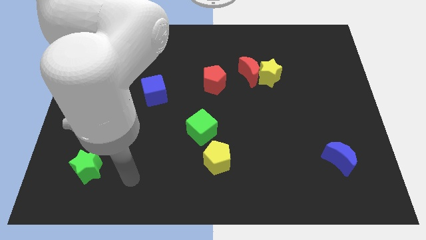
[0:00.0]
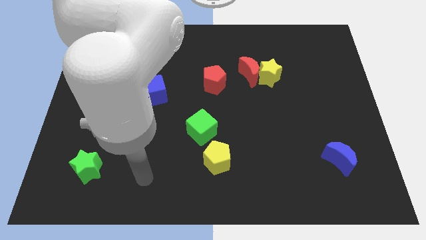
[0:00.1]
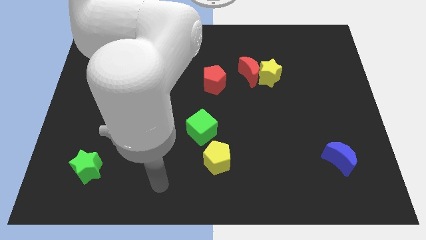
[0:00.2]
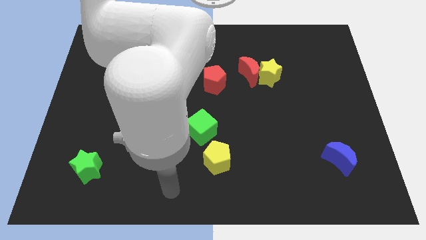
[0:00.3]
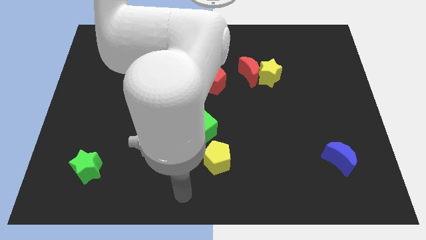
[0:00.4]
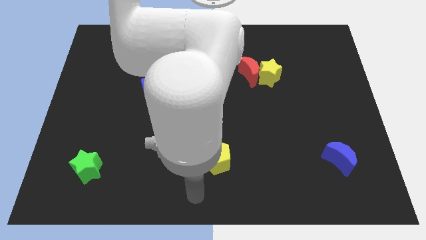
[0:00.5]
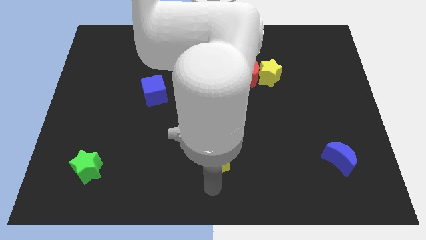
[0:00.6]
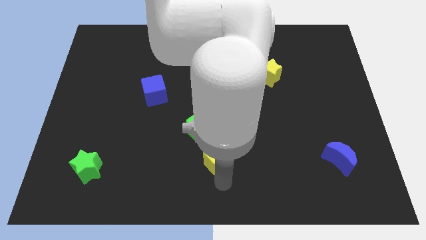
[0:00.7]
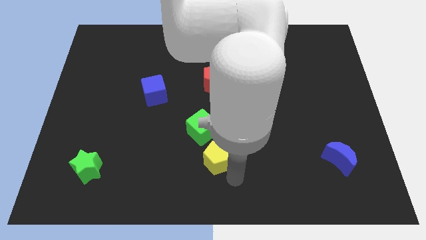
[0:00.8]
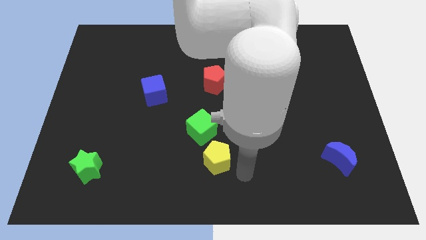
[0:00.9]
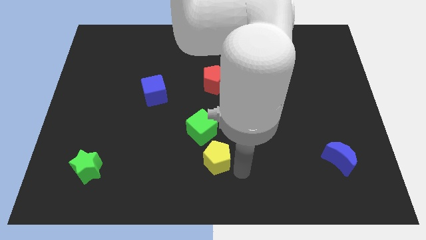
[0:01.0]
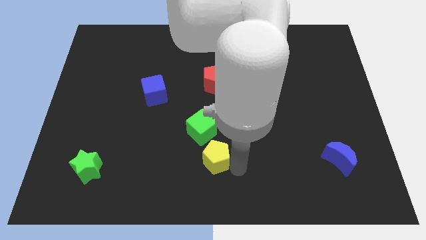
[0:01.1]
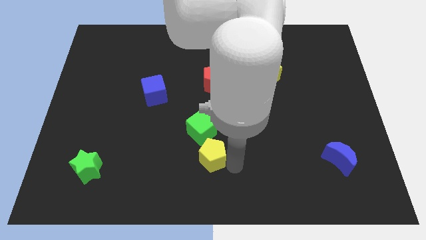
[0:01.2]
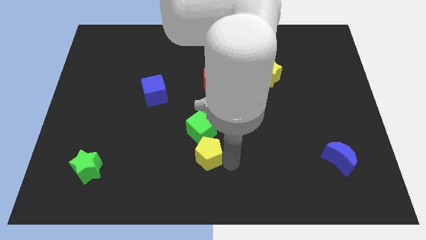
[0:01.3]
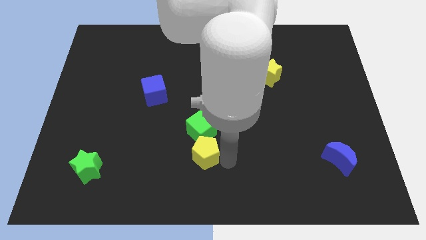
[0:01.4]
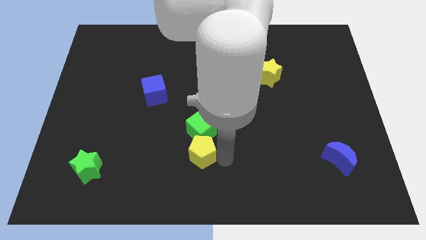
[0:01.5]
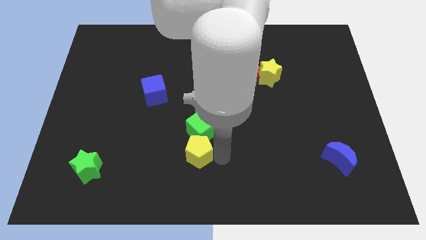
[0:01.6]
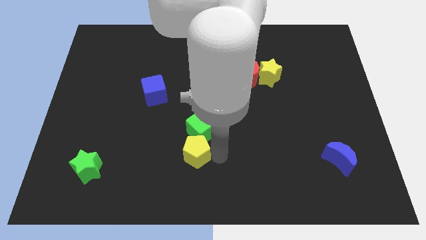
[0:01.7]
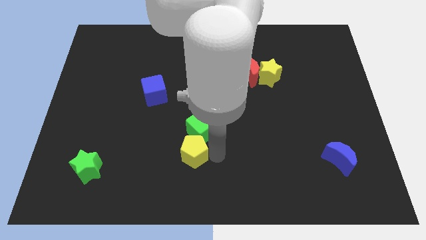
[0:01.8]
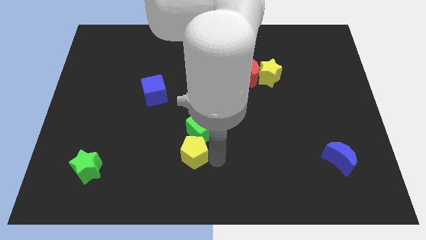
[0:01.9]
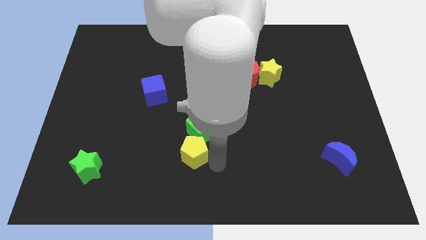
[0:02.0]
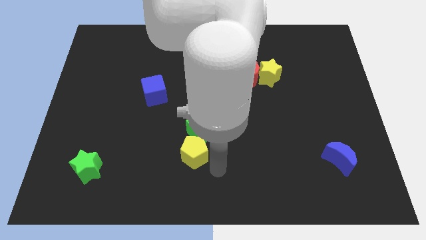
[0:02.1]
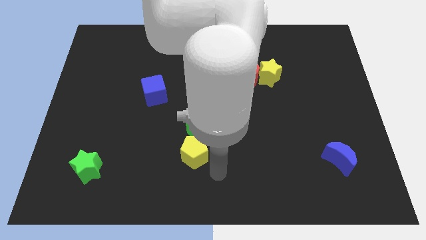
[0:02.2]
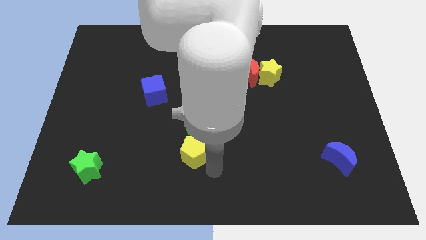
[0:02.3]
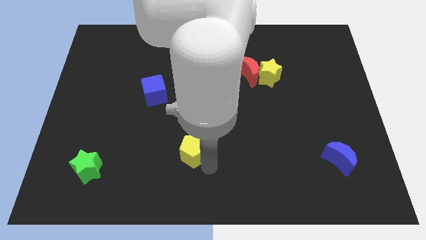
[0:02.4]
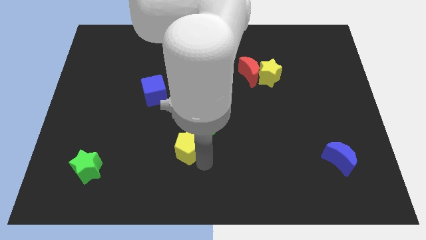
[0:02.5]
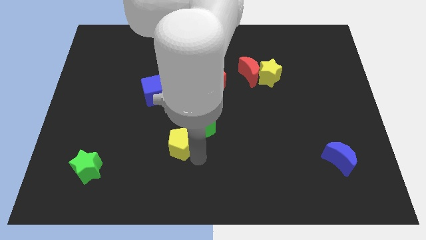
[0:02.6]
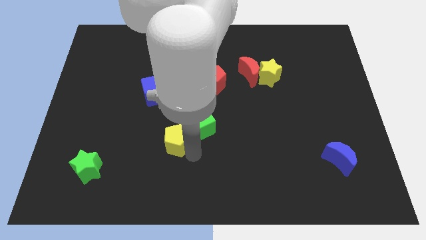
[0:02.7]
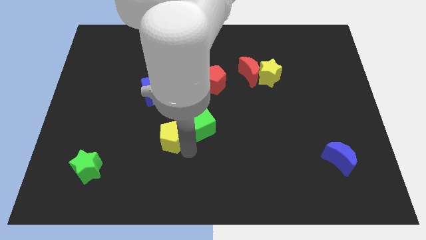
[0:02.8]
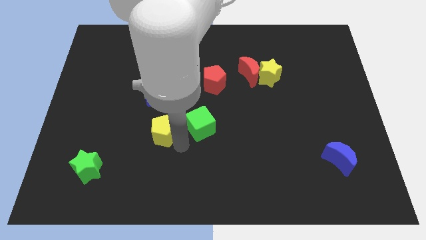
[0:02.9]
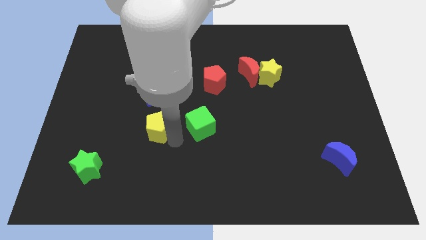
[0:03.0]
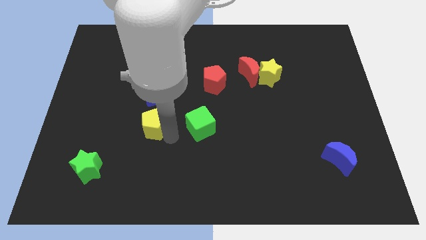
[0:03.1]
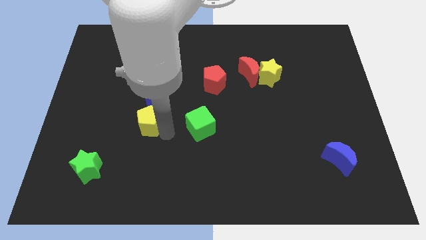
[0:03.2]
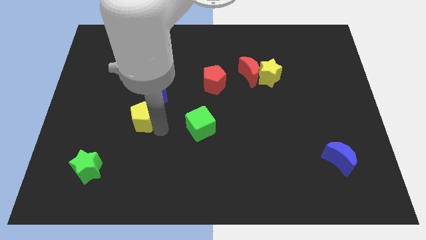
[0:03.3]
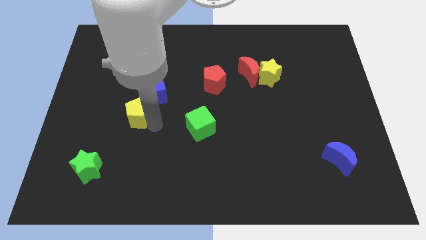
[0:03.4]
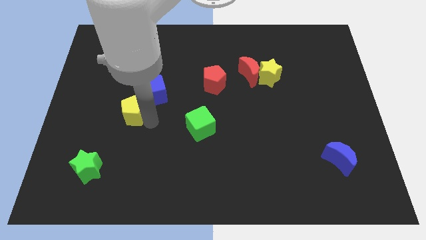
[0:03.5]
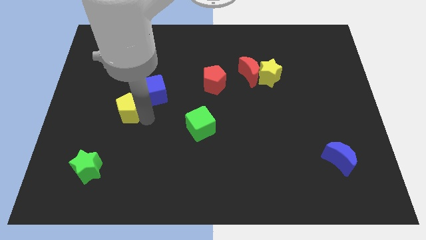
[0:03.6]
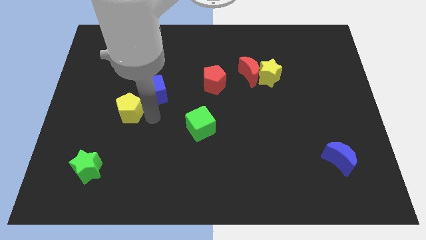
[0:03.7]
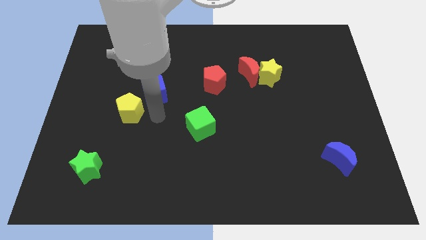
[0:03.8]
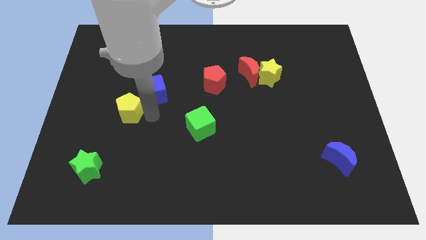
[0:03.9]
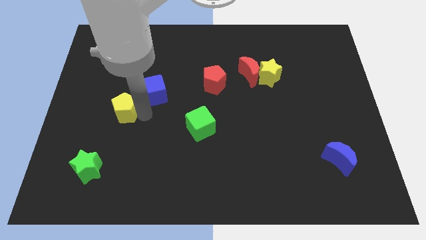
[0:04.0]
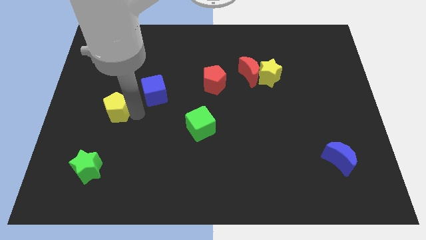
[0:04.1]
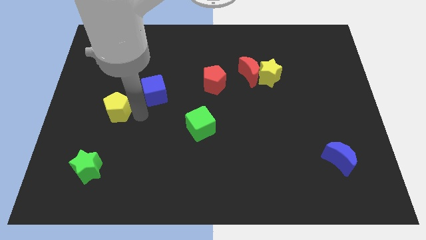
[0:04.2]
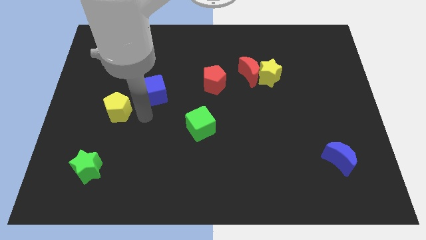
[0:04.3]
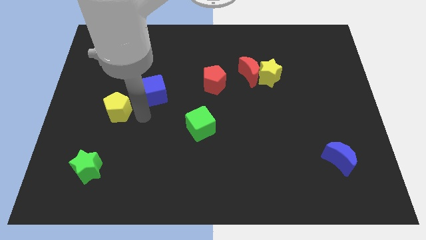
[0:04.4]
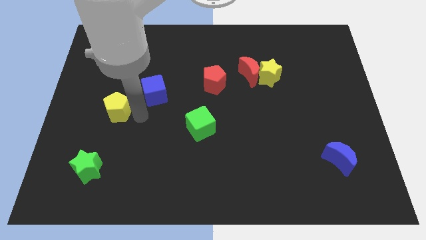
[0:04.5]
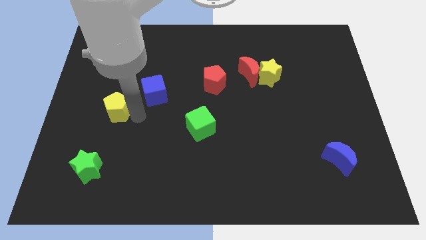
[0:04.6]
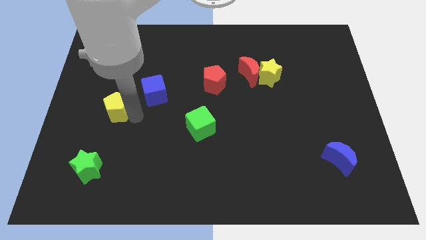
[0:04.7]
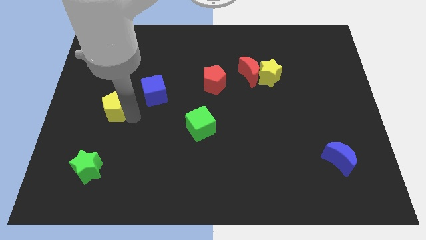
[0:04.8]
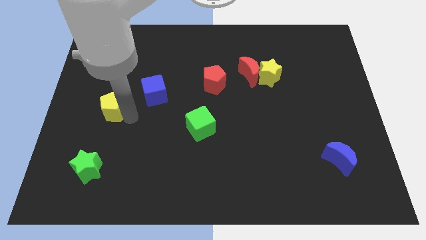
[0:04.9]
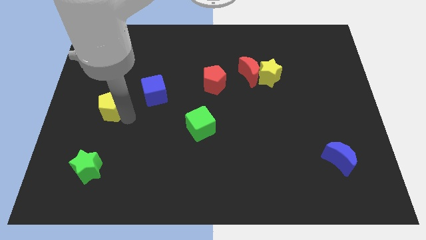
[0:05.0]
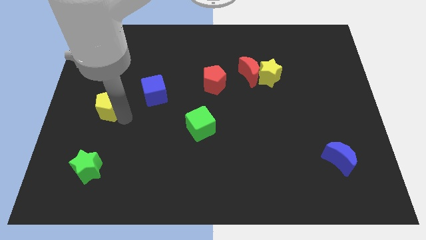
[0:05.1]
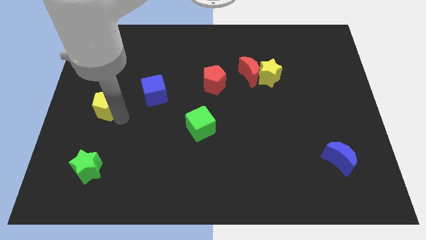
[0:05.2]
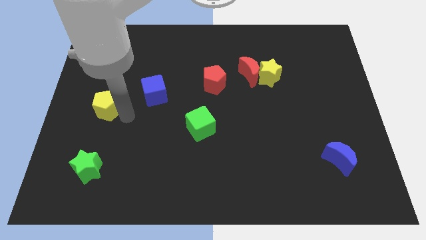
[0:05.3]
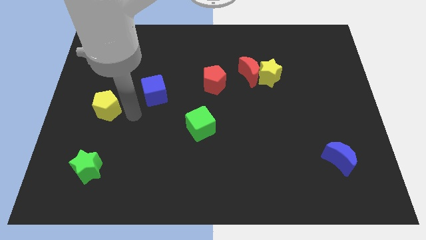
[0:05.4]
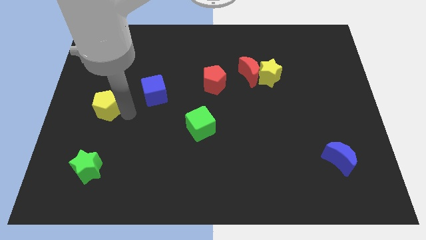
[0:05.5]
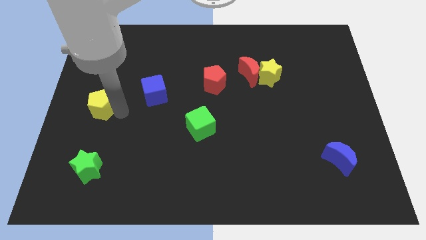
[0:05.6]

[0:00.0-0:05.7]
push the yellow pentagon to the center left

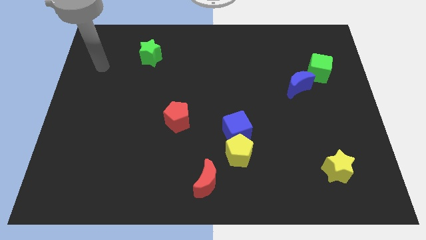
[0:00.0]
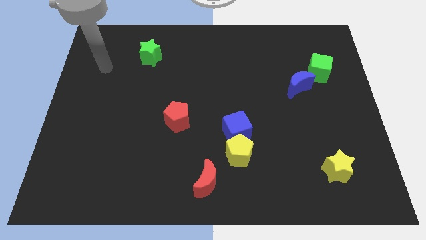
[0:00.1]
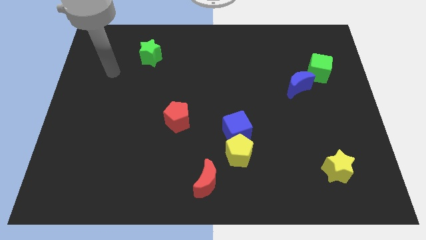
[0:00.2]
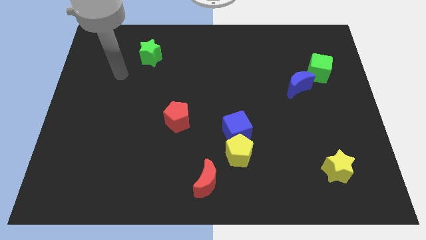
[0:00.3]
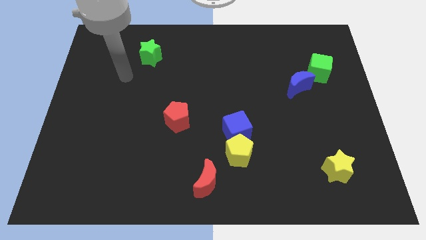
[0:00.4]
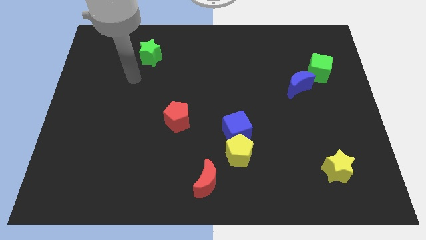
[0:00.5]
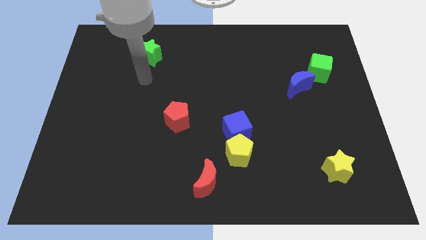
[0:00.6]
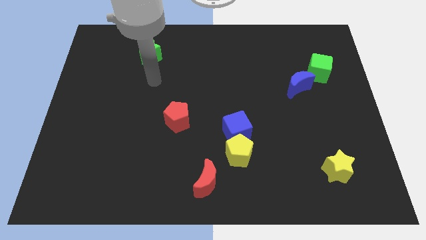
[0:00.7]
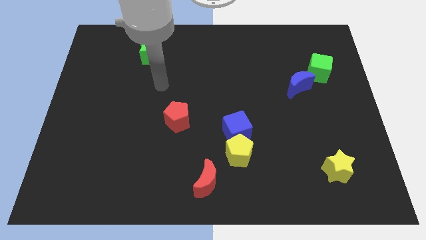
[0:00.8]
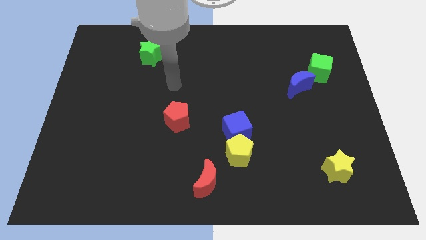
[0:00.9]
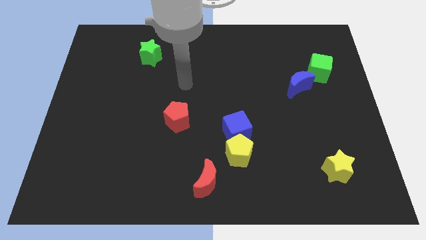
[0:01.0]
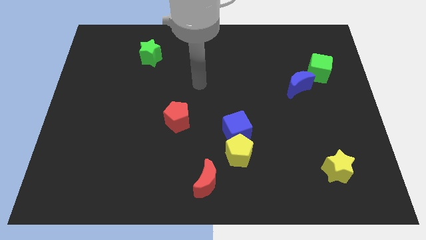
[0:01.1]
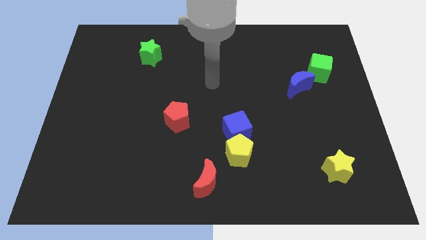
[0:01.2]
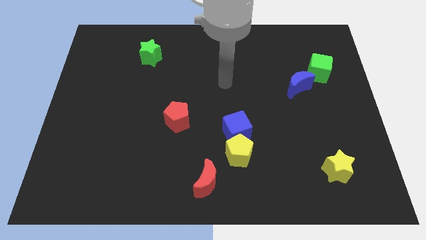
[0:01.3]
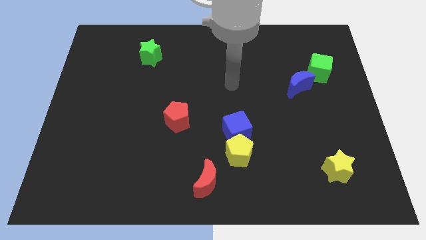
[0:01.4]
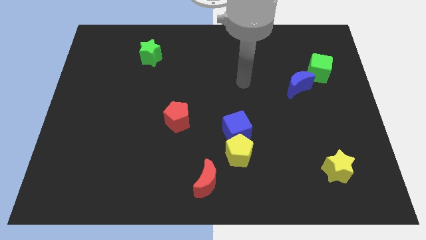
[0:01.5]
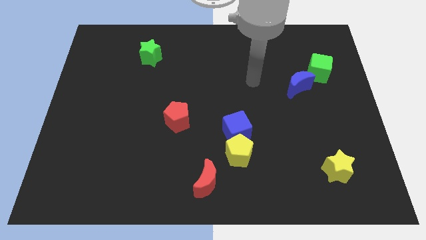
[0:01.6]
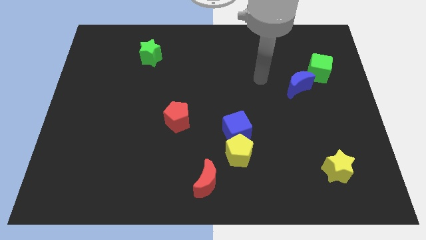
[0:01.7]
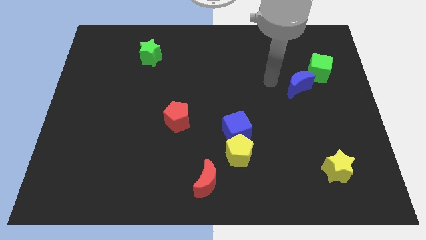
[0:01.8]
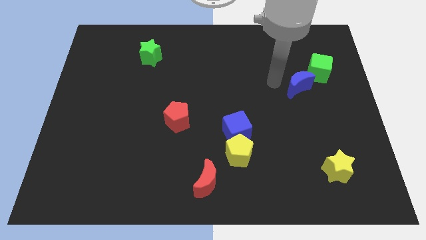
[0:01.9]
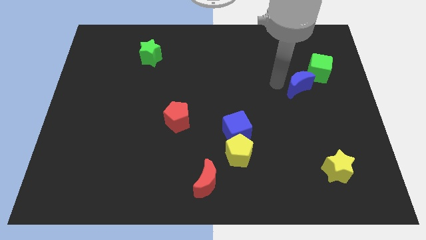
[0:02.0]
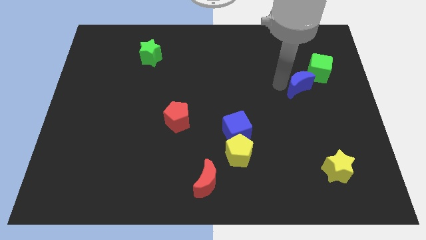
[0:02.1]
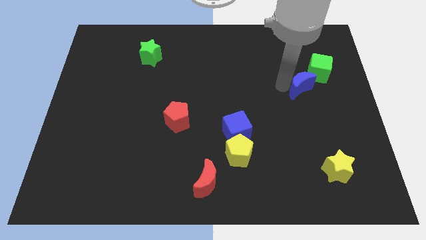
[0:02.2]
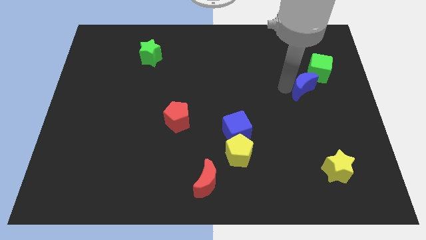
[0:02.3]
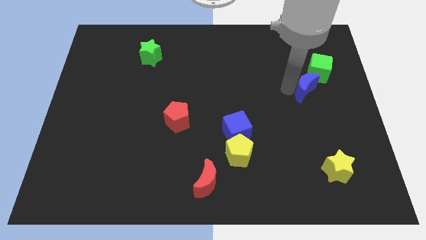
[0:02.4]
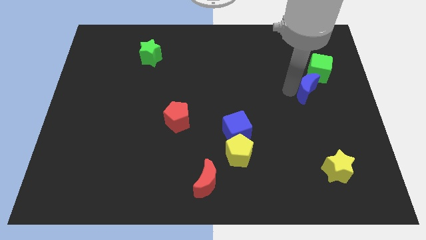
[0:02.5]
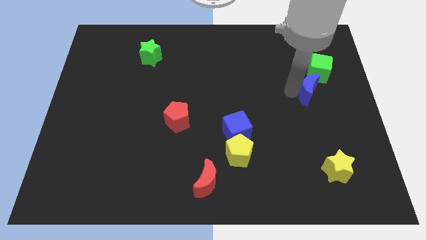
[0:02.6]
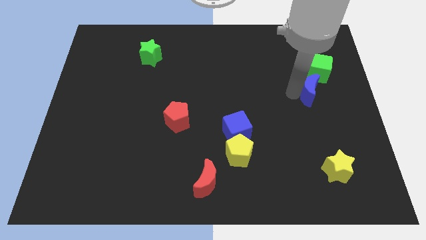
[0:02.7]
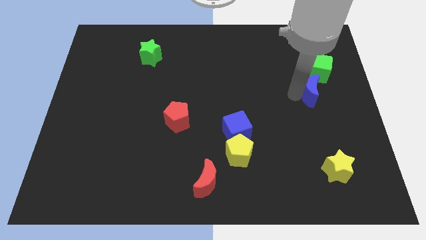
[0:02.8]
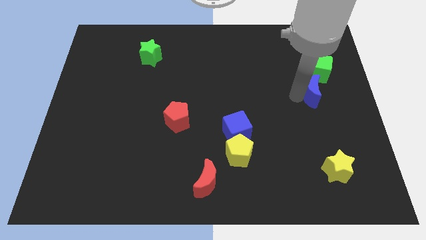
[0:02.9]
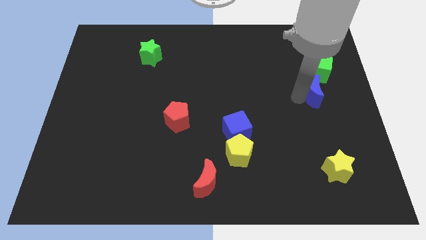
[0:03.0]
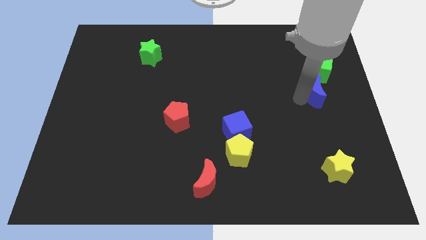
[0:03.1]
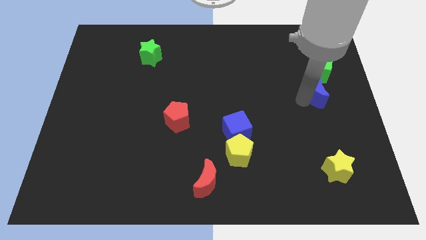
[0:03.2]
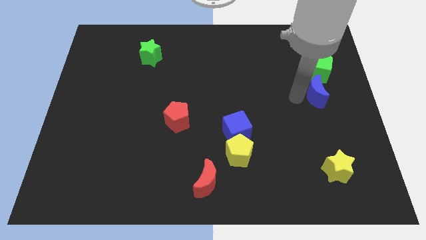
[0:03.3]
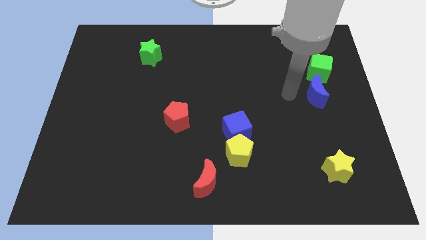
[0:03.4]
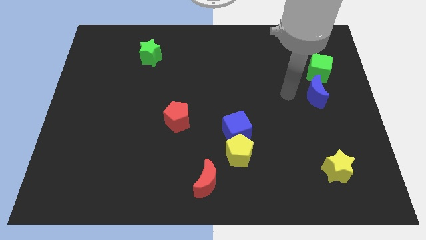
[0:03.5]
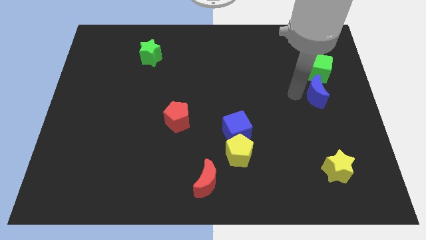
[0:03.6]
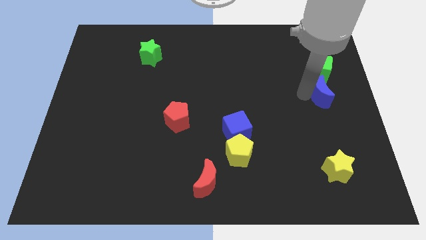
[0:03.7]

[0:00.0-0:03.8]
slide the blue moon to the right side of the board
